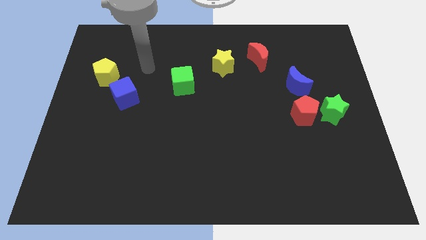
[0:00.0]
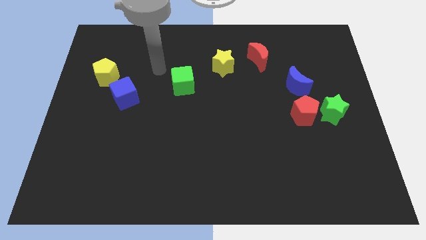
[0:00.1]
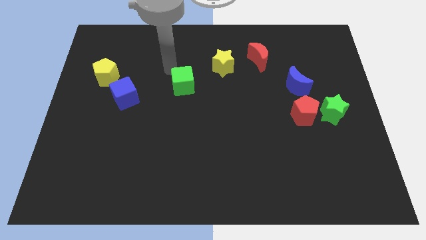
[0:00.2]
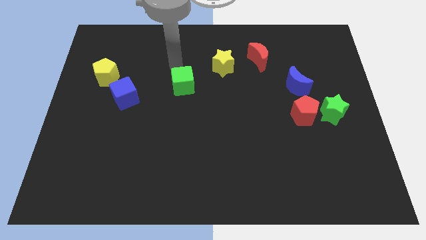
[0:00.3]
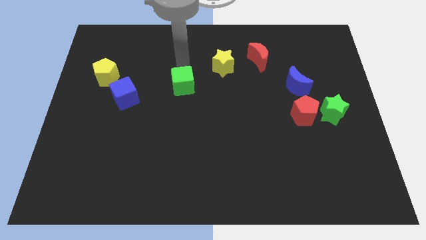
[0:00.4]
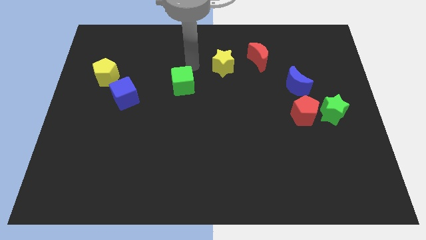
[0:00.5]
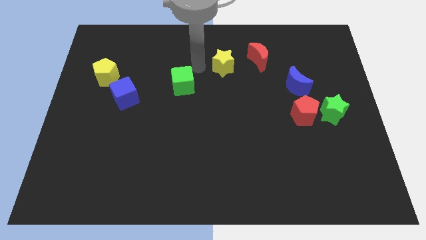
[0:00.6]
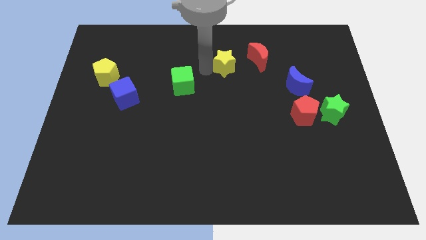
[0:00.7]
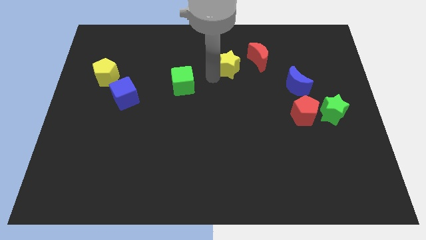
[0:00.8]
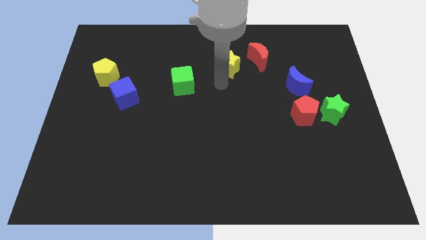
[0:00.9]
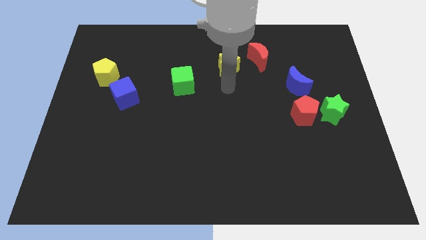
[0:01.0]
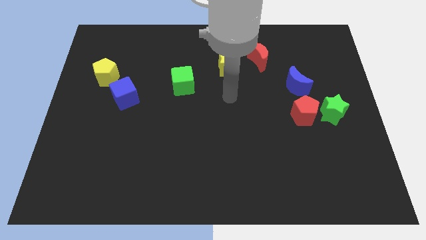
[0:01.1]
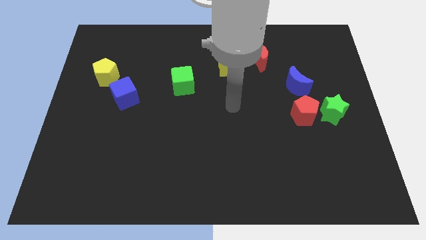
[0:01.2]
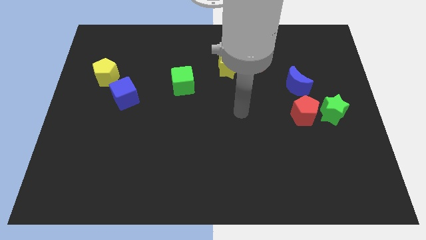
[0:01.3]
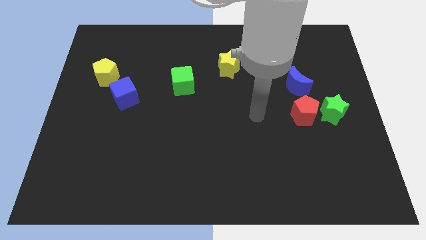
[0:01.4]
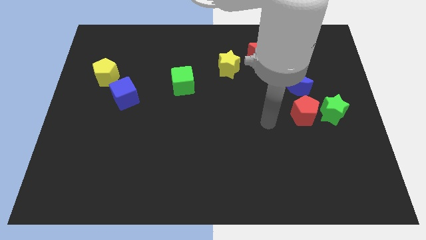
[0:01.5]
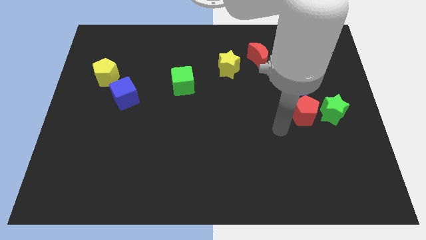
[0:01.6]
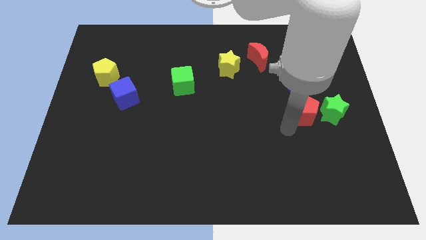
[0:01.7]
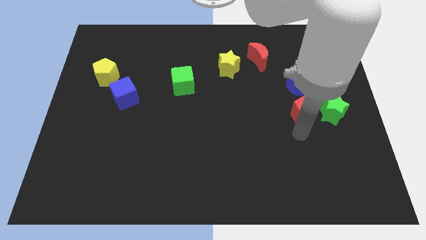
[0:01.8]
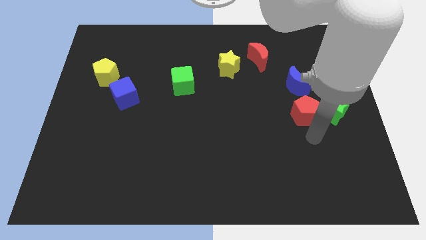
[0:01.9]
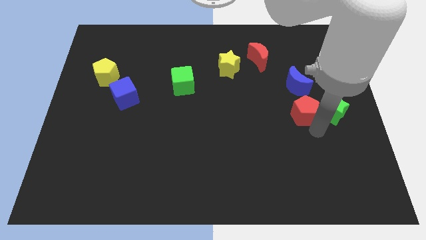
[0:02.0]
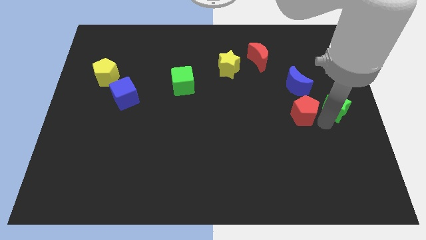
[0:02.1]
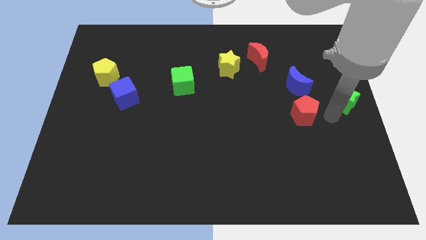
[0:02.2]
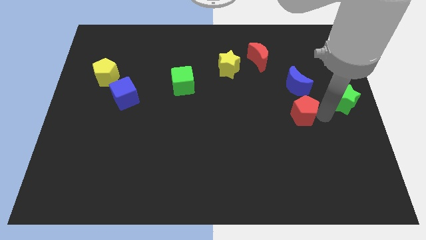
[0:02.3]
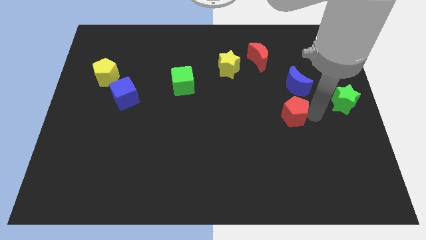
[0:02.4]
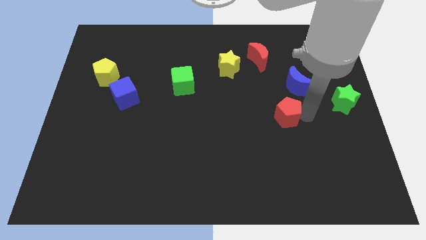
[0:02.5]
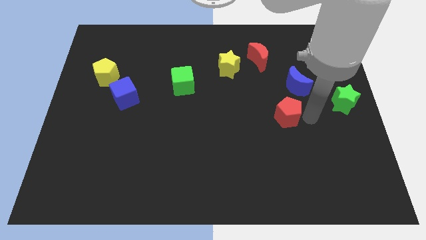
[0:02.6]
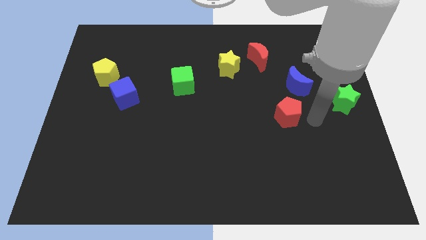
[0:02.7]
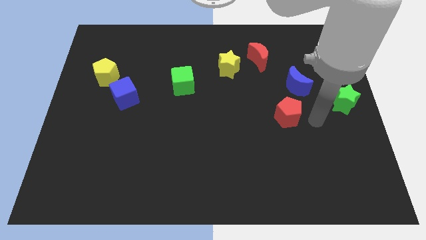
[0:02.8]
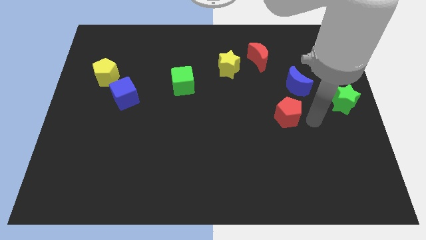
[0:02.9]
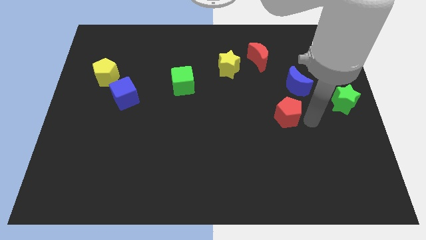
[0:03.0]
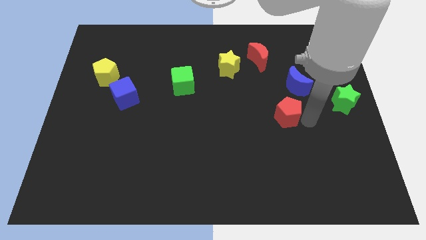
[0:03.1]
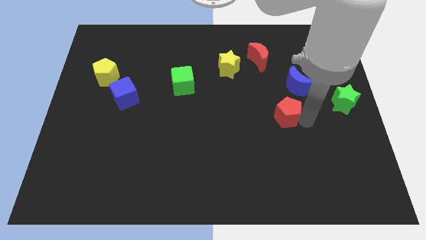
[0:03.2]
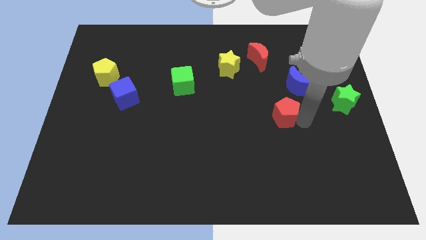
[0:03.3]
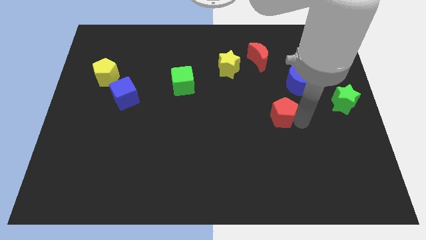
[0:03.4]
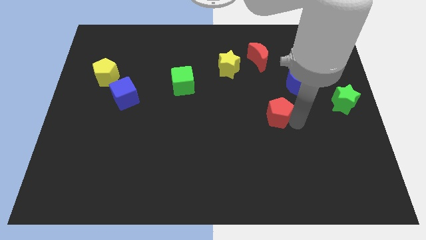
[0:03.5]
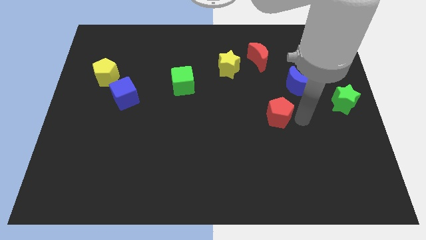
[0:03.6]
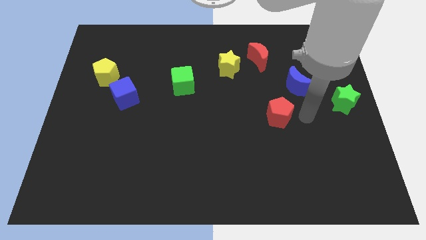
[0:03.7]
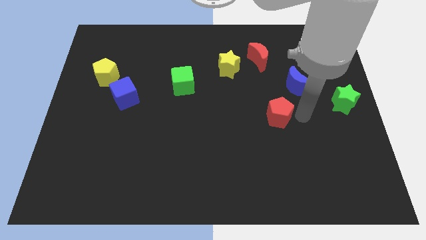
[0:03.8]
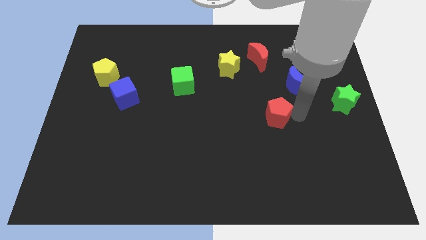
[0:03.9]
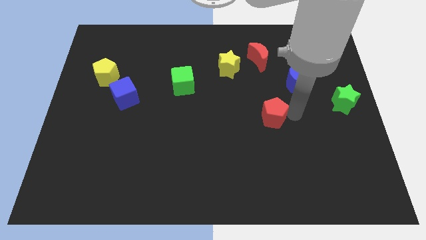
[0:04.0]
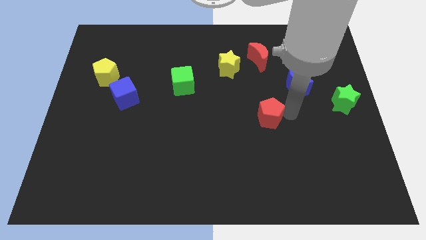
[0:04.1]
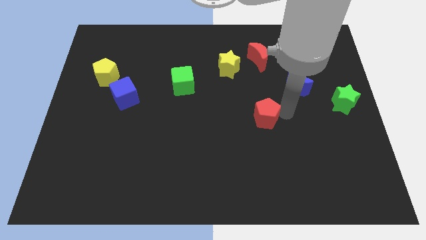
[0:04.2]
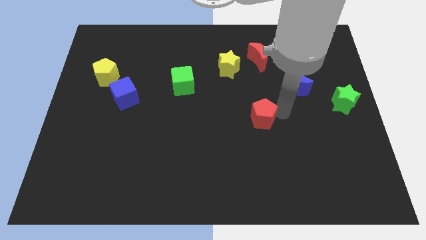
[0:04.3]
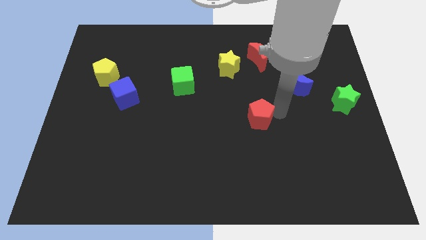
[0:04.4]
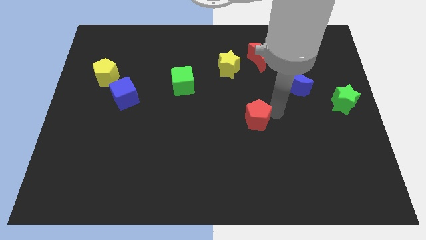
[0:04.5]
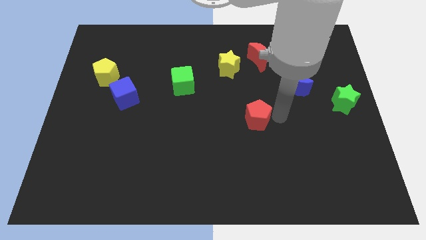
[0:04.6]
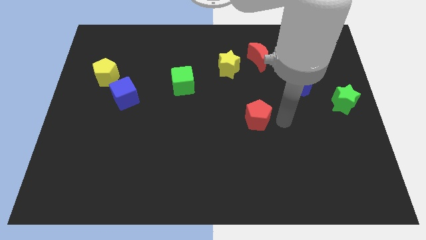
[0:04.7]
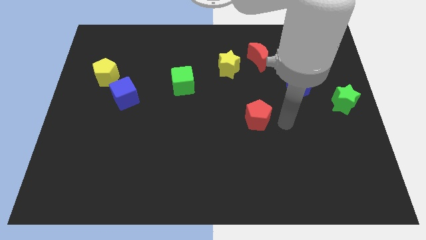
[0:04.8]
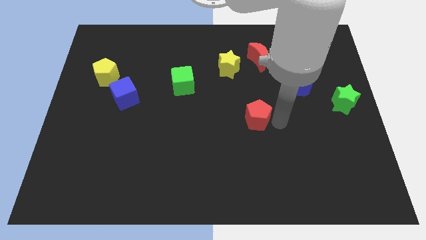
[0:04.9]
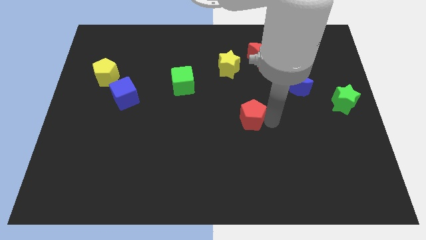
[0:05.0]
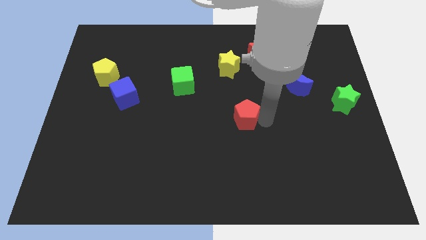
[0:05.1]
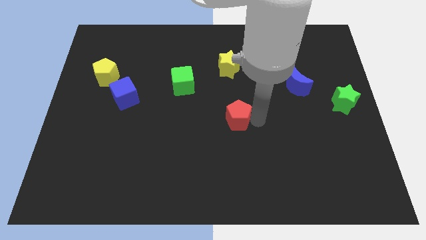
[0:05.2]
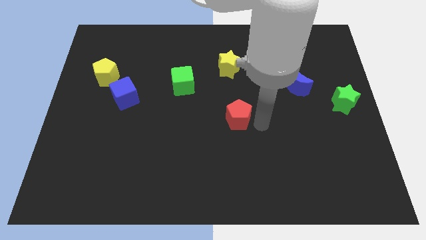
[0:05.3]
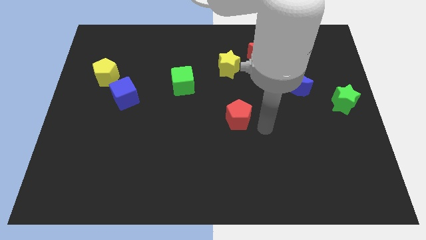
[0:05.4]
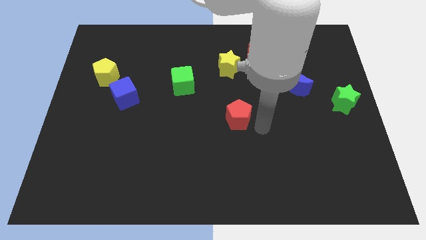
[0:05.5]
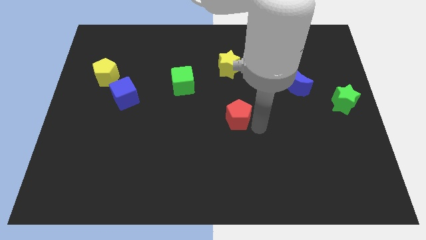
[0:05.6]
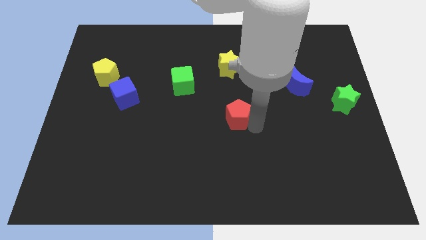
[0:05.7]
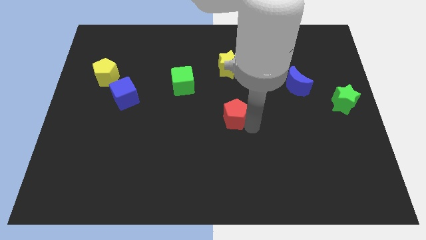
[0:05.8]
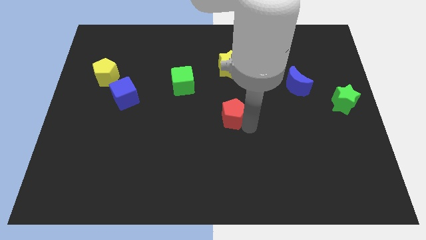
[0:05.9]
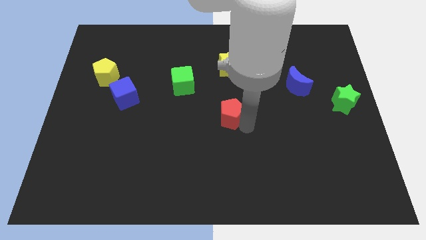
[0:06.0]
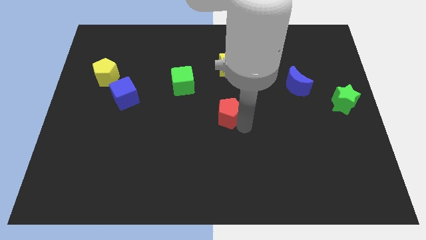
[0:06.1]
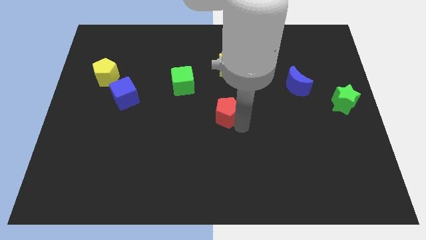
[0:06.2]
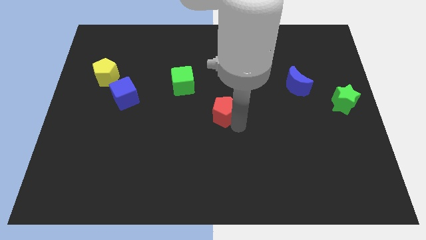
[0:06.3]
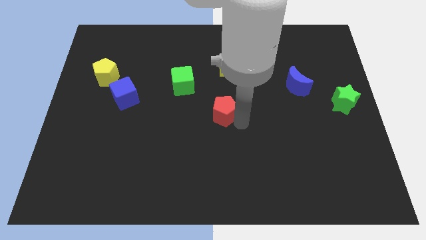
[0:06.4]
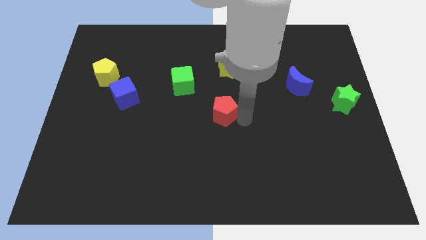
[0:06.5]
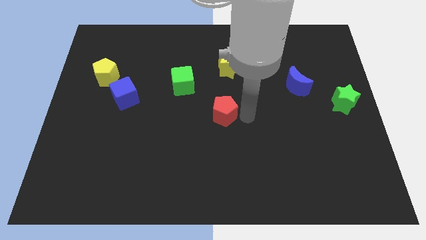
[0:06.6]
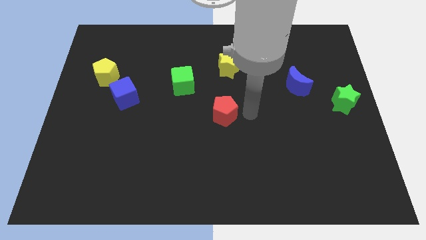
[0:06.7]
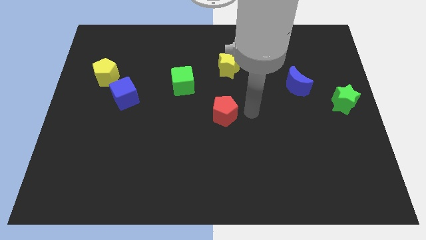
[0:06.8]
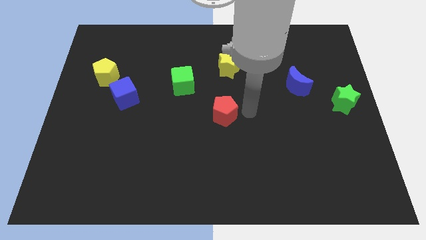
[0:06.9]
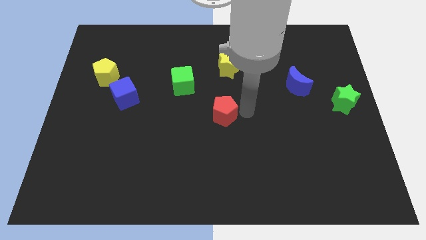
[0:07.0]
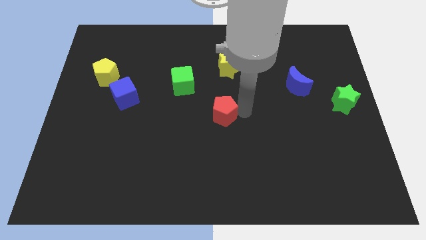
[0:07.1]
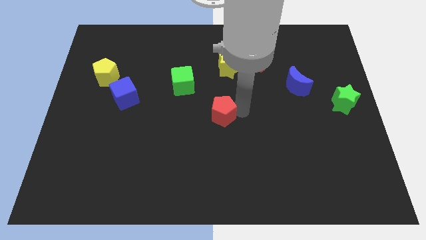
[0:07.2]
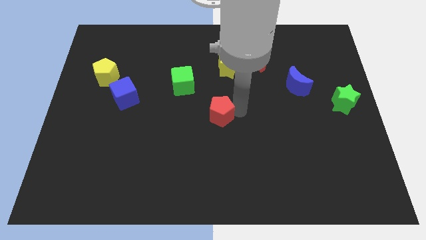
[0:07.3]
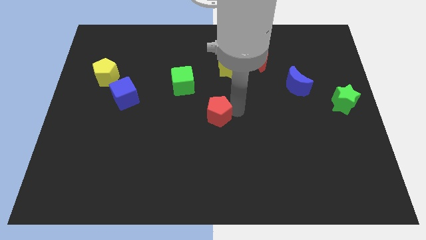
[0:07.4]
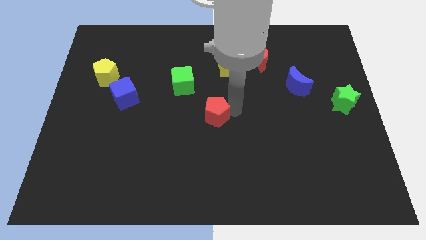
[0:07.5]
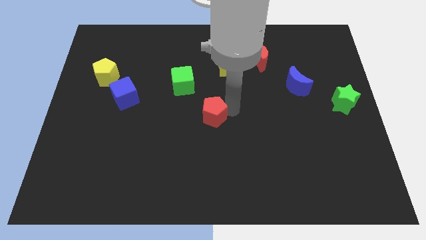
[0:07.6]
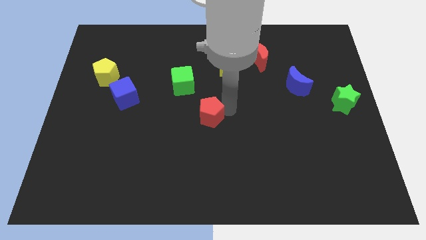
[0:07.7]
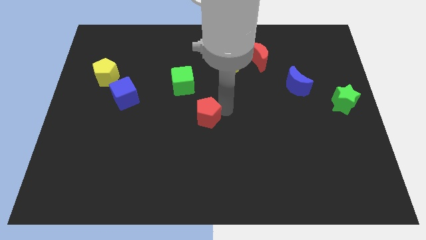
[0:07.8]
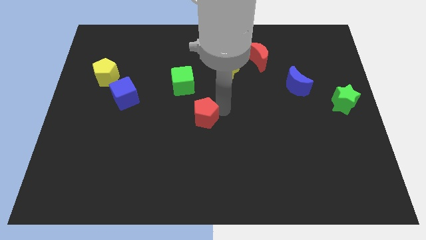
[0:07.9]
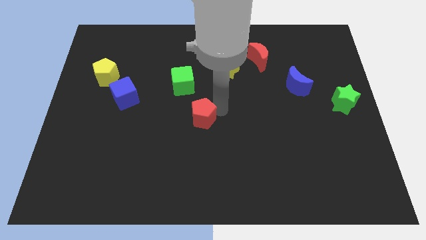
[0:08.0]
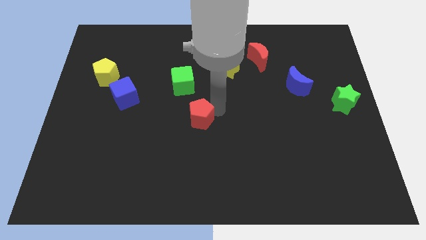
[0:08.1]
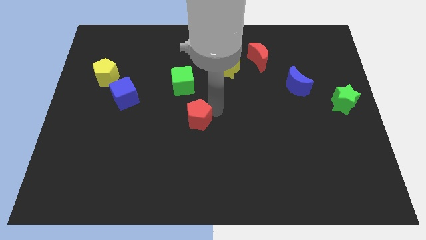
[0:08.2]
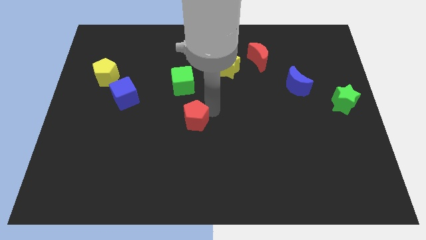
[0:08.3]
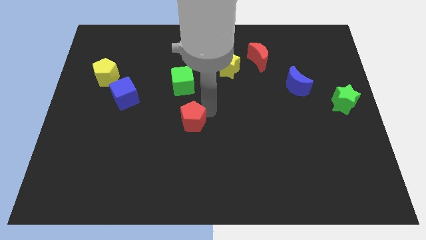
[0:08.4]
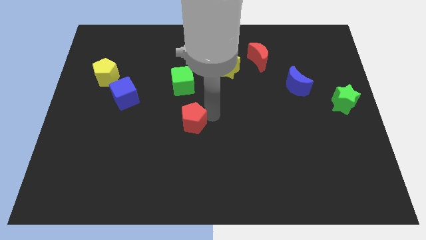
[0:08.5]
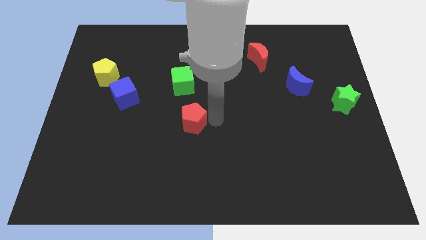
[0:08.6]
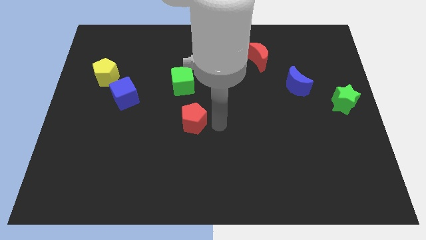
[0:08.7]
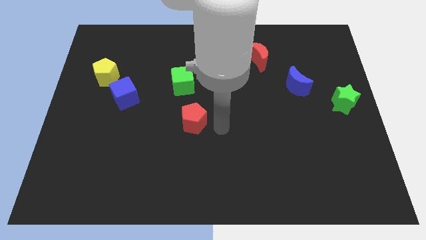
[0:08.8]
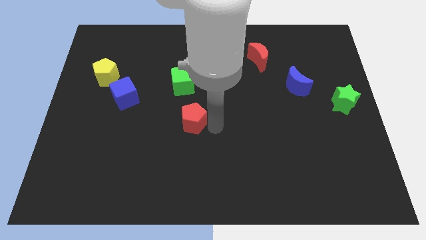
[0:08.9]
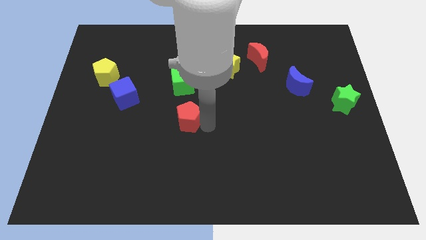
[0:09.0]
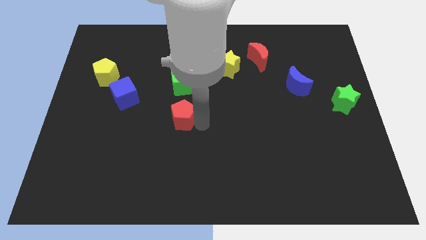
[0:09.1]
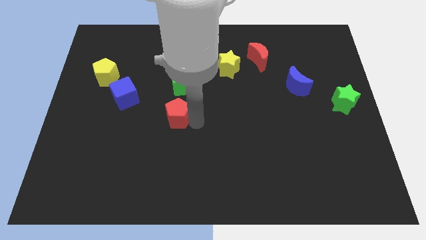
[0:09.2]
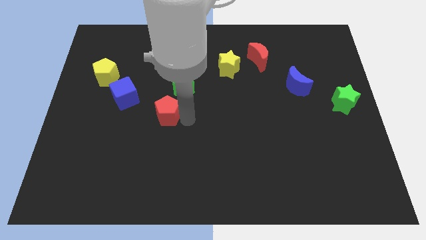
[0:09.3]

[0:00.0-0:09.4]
put the red pentagon to the bottom right of the blue cube
